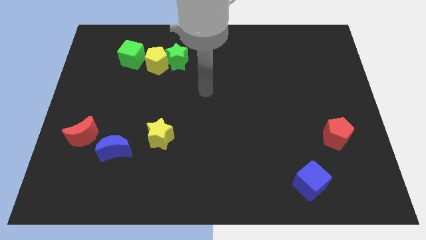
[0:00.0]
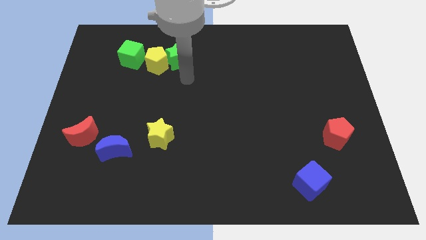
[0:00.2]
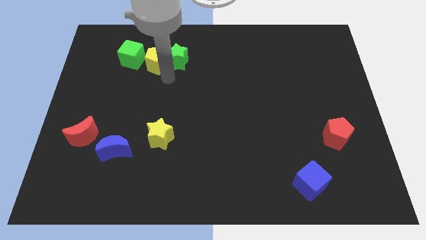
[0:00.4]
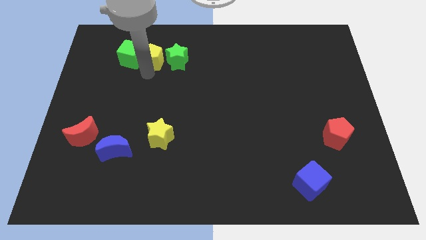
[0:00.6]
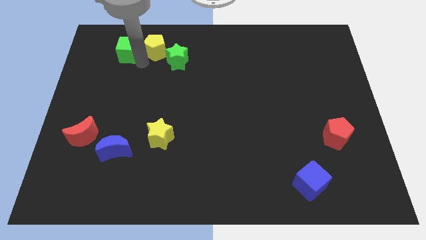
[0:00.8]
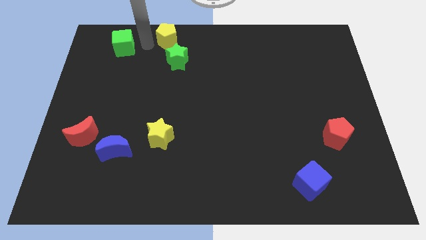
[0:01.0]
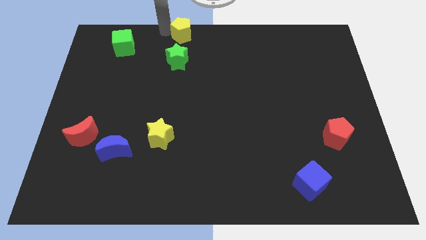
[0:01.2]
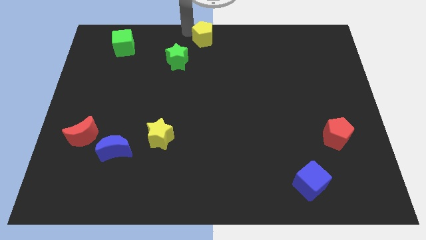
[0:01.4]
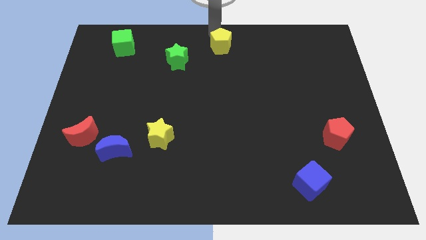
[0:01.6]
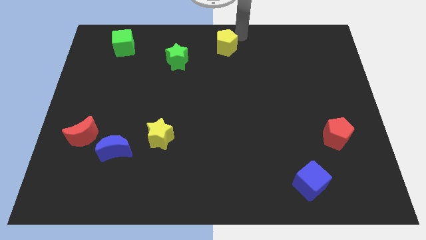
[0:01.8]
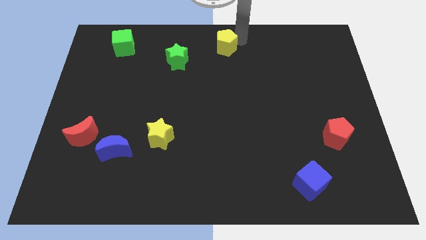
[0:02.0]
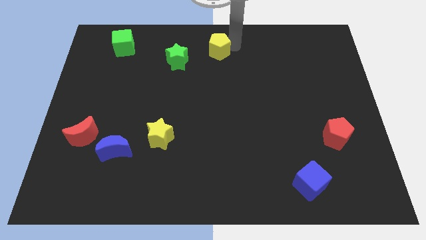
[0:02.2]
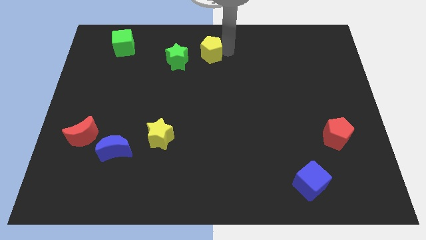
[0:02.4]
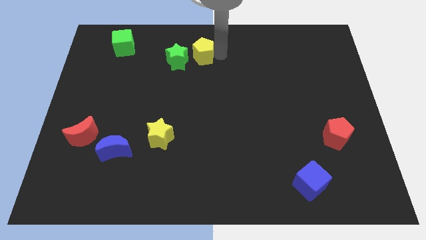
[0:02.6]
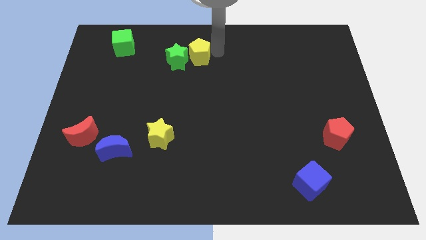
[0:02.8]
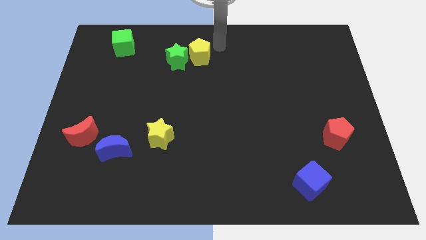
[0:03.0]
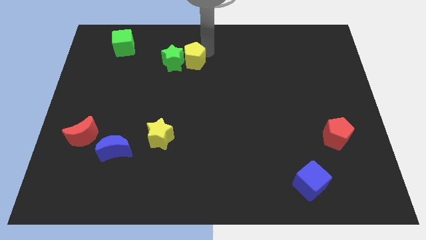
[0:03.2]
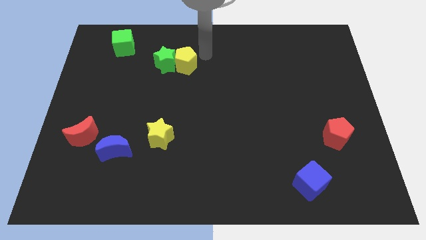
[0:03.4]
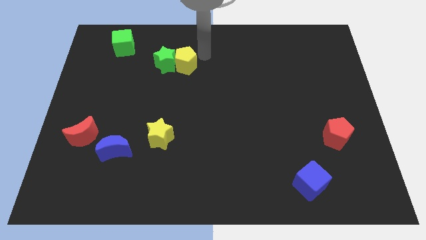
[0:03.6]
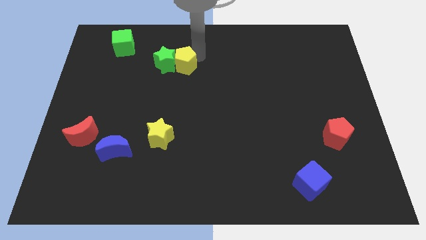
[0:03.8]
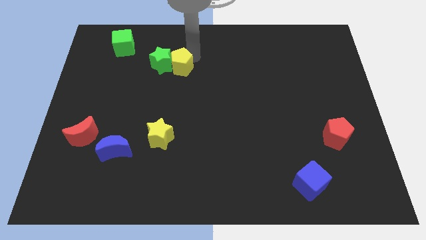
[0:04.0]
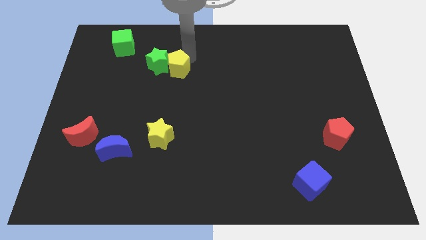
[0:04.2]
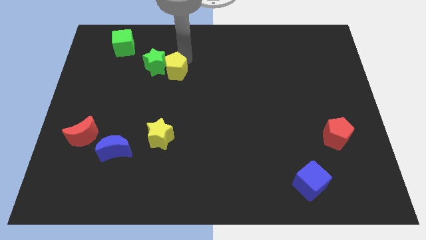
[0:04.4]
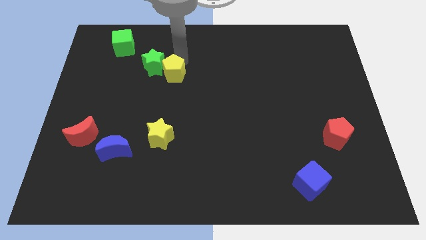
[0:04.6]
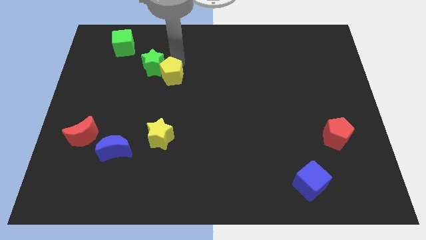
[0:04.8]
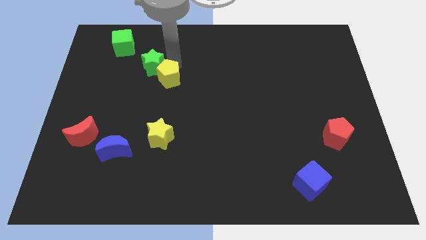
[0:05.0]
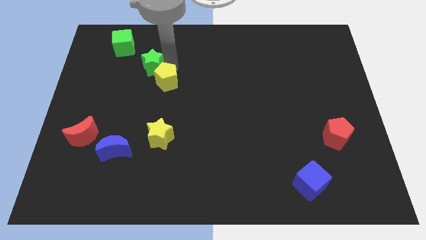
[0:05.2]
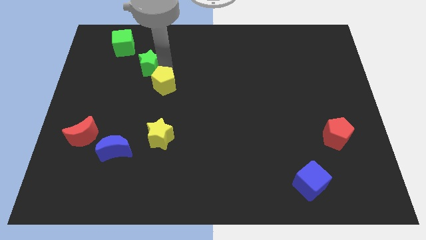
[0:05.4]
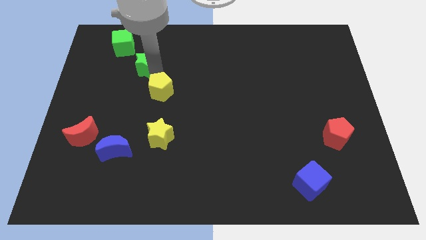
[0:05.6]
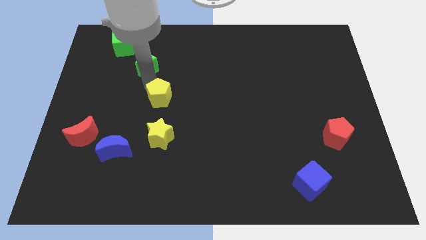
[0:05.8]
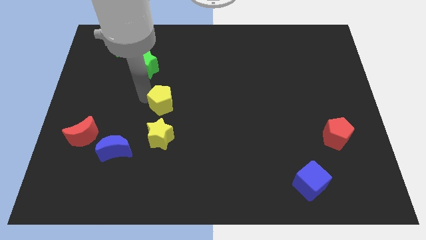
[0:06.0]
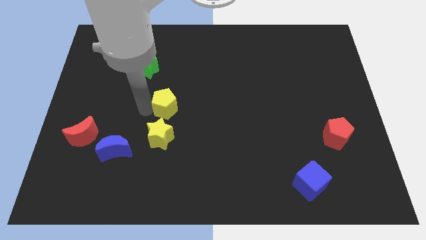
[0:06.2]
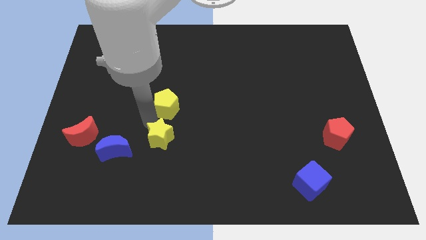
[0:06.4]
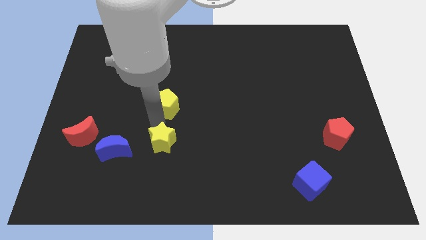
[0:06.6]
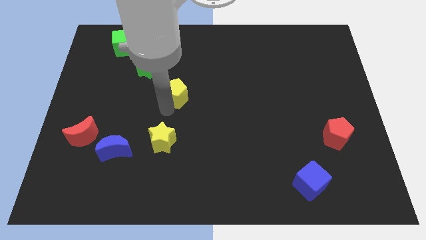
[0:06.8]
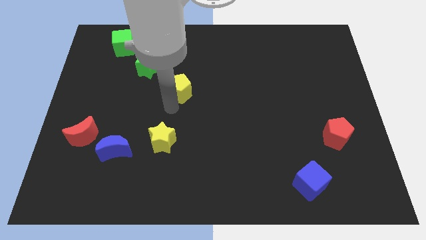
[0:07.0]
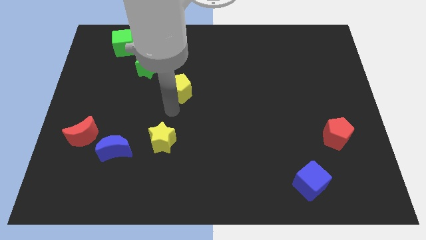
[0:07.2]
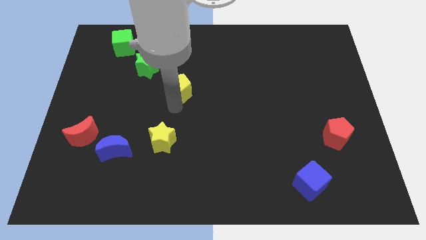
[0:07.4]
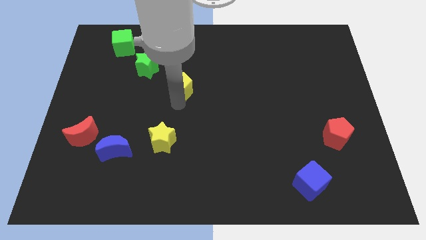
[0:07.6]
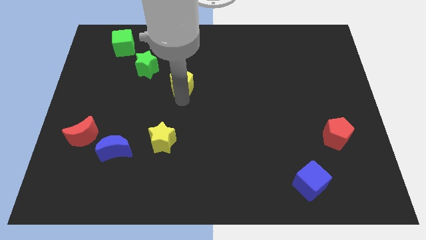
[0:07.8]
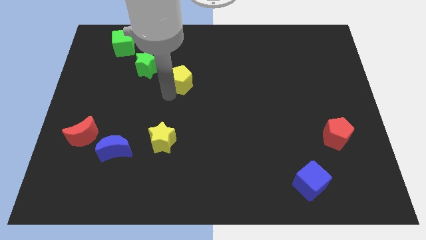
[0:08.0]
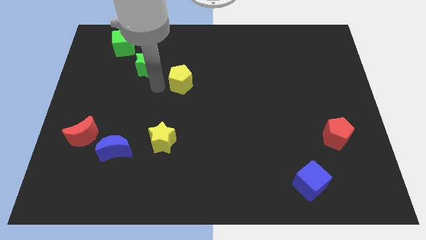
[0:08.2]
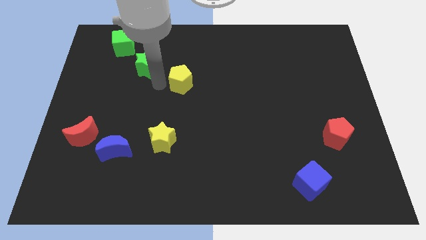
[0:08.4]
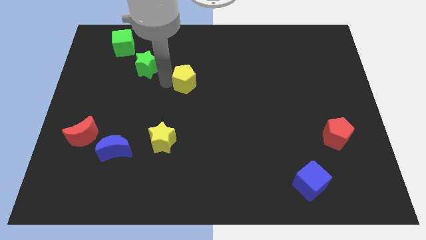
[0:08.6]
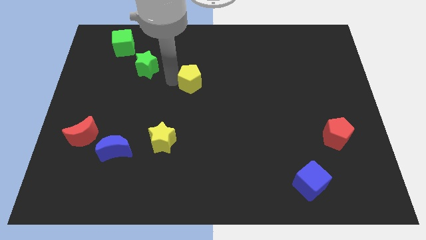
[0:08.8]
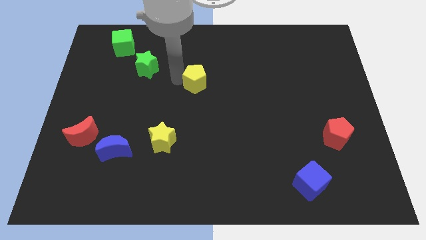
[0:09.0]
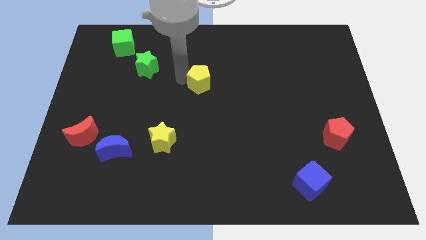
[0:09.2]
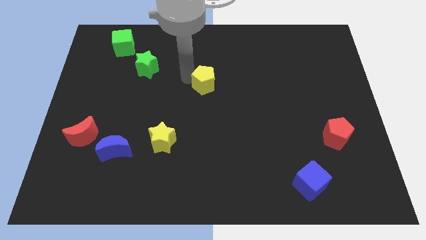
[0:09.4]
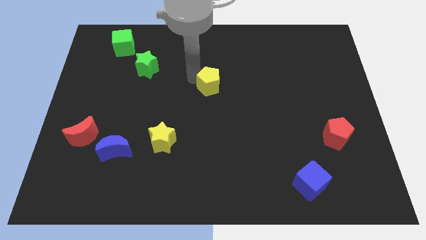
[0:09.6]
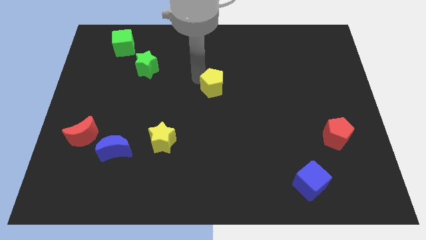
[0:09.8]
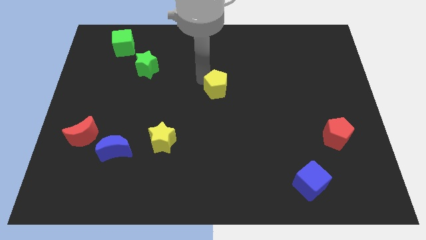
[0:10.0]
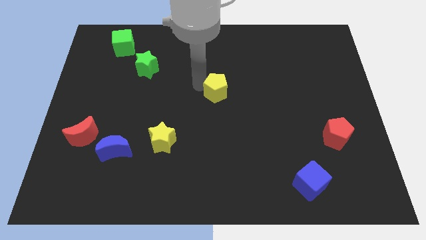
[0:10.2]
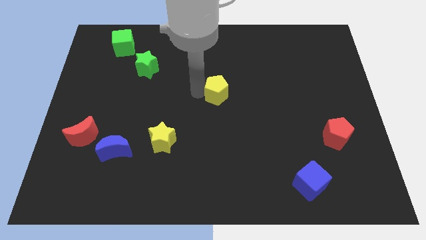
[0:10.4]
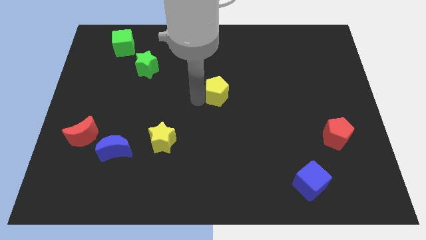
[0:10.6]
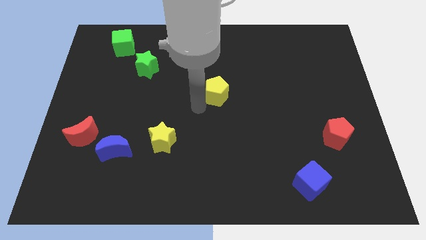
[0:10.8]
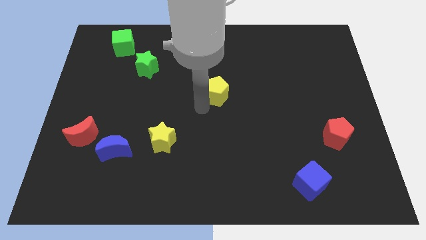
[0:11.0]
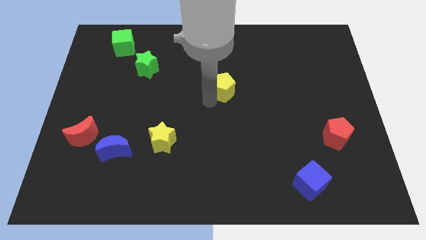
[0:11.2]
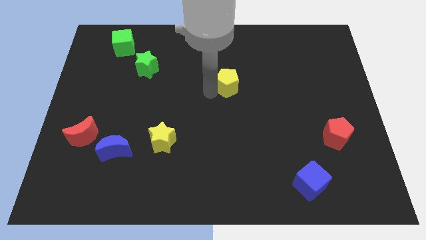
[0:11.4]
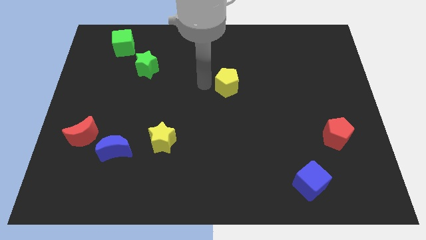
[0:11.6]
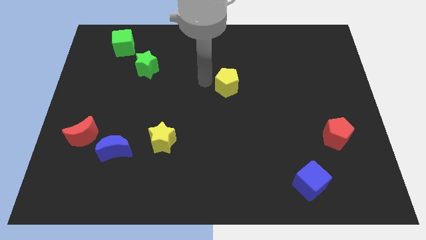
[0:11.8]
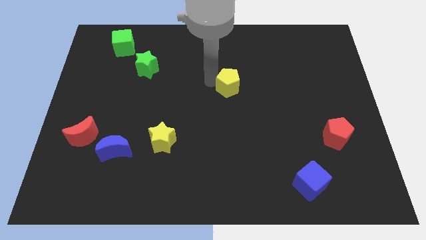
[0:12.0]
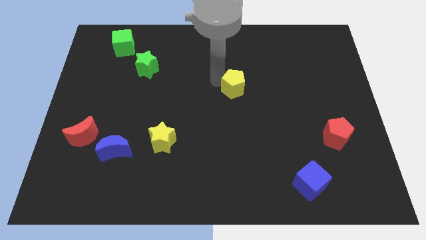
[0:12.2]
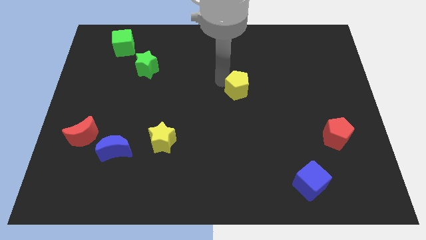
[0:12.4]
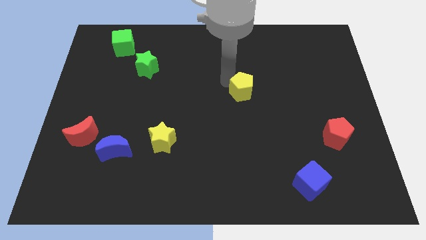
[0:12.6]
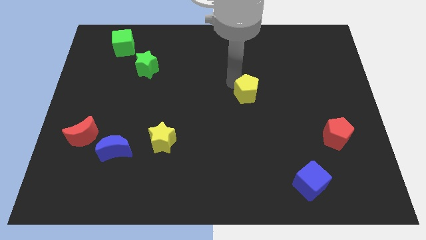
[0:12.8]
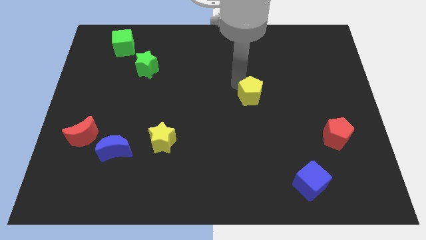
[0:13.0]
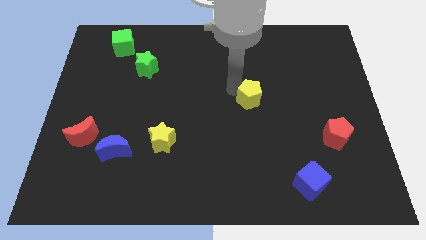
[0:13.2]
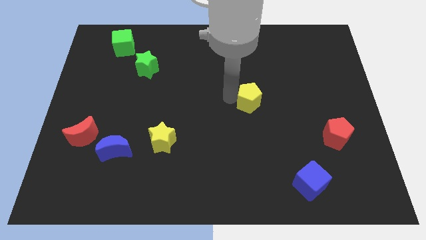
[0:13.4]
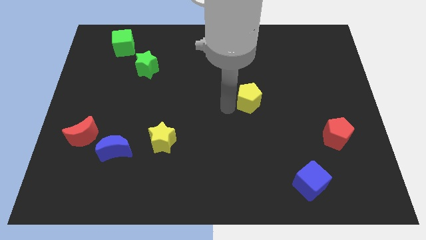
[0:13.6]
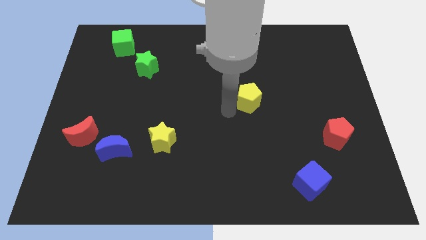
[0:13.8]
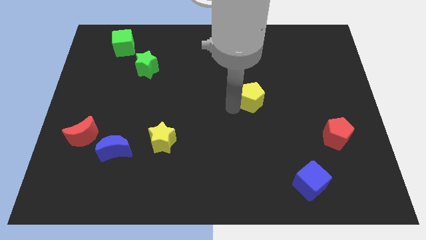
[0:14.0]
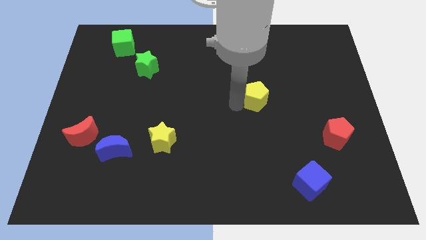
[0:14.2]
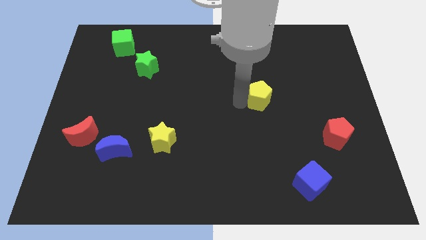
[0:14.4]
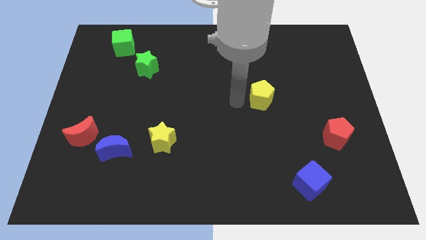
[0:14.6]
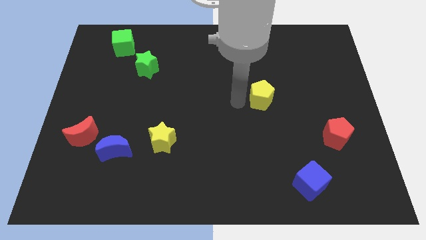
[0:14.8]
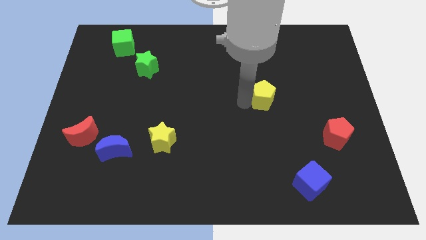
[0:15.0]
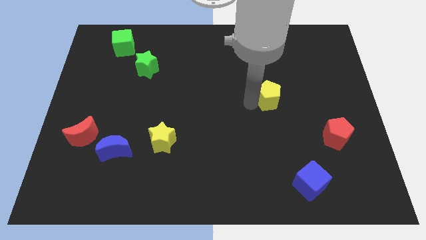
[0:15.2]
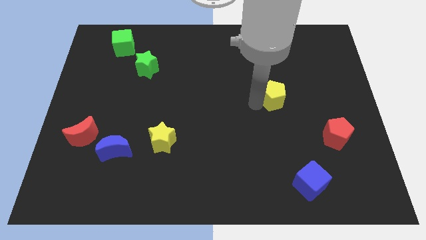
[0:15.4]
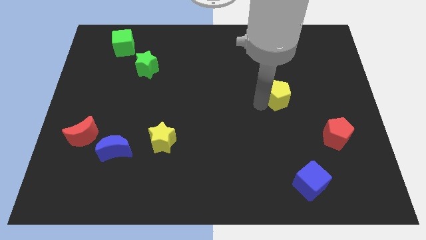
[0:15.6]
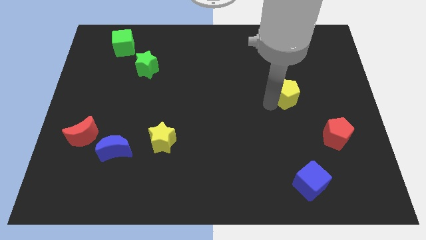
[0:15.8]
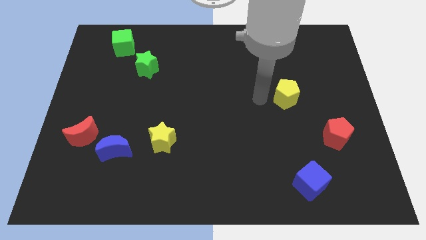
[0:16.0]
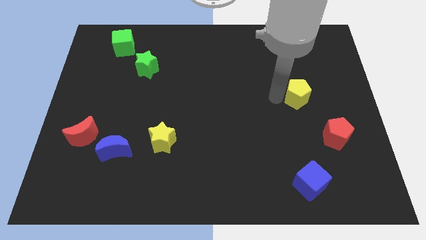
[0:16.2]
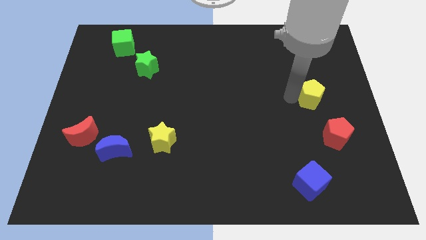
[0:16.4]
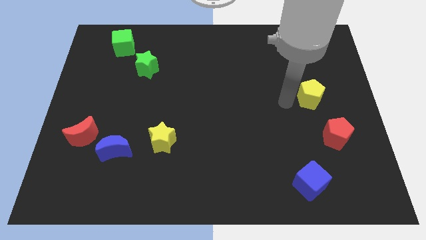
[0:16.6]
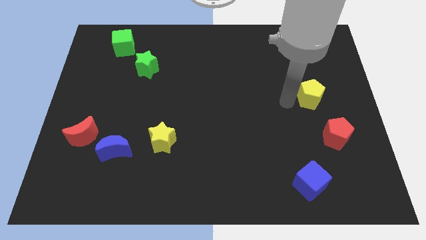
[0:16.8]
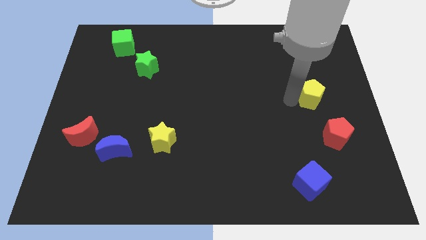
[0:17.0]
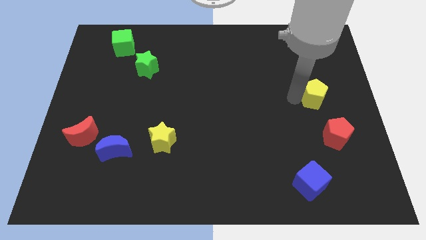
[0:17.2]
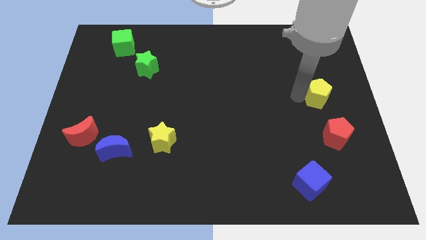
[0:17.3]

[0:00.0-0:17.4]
push the yellow pentagon to the right side
